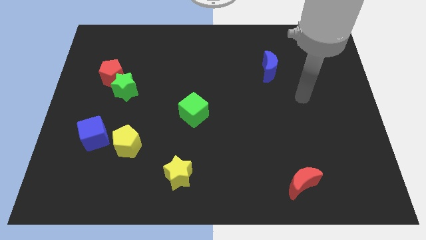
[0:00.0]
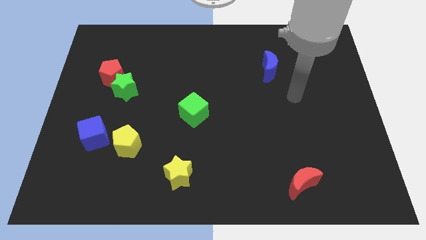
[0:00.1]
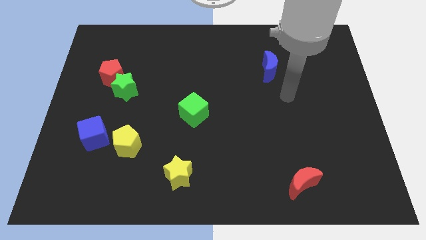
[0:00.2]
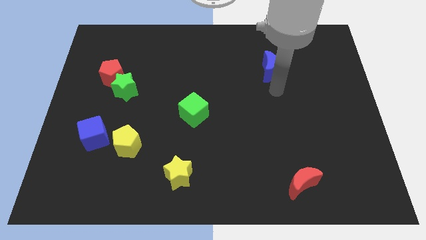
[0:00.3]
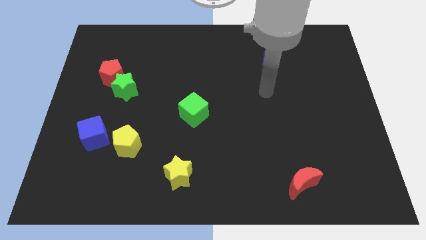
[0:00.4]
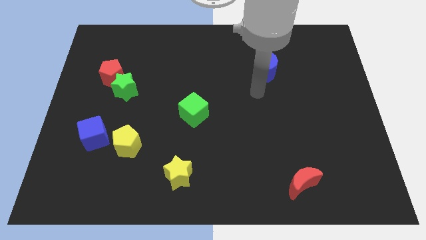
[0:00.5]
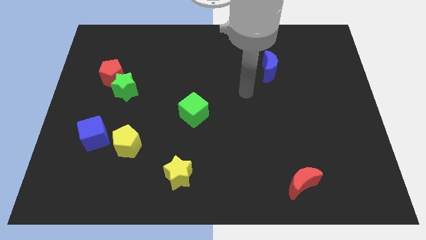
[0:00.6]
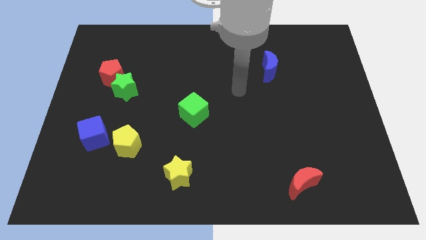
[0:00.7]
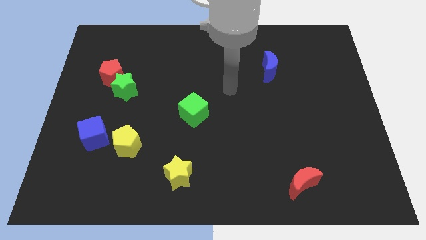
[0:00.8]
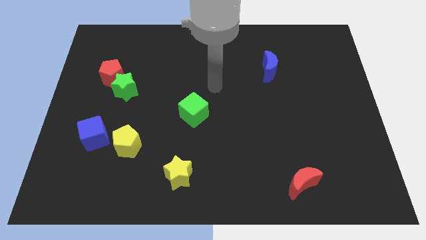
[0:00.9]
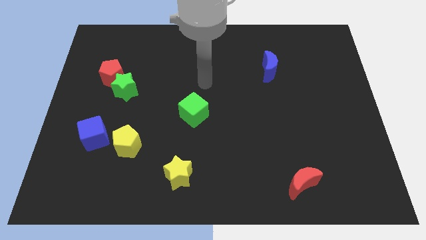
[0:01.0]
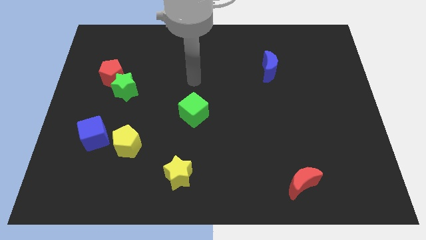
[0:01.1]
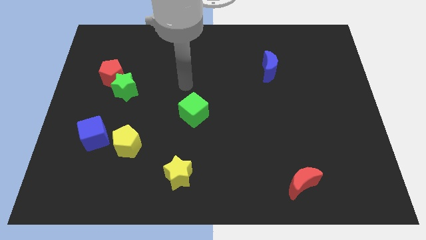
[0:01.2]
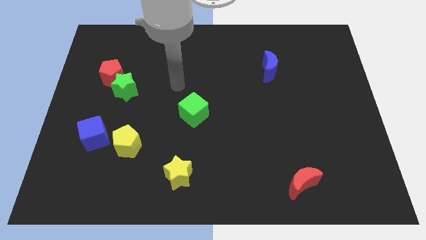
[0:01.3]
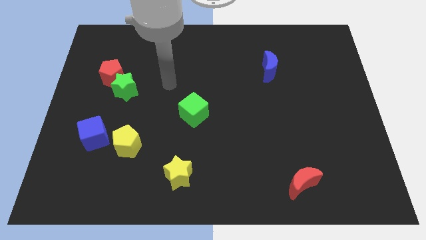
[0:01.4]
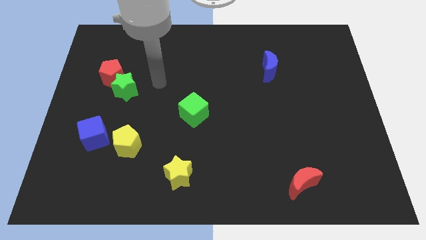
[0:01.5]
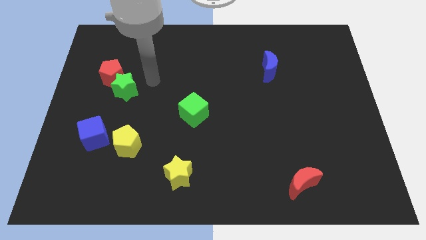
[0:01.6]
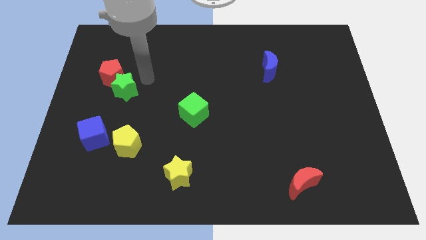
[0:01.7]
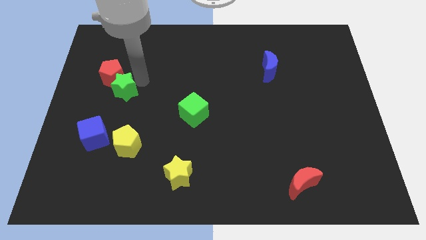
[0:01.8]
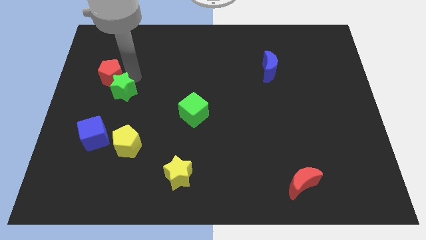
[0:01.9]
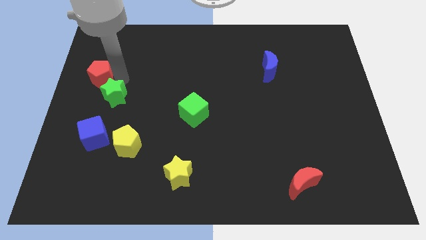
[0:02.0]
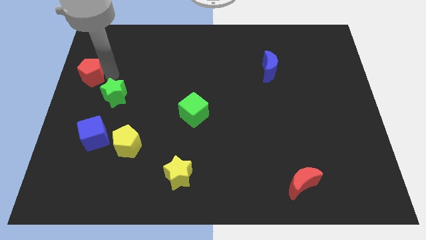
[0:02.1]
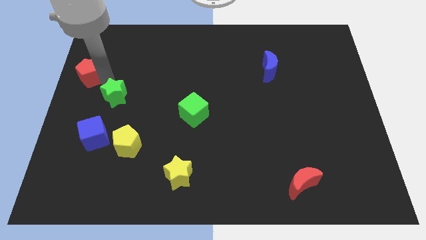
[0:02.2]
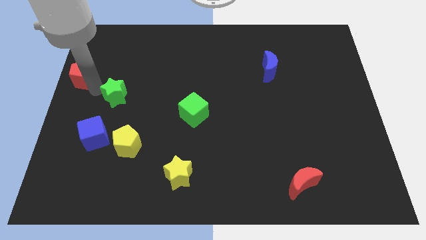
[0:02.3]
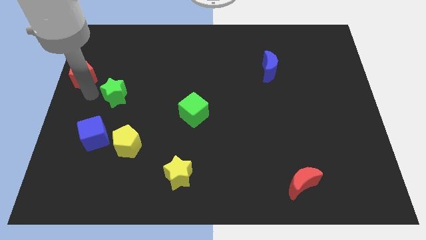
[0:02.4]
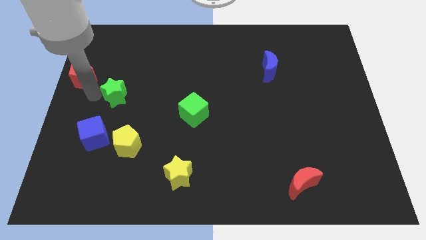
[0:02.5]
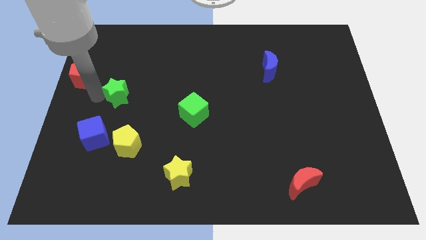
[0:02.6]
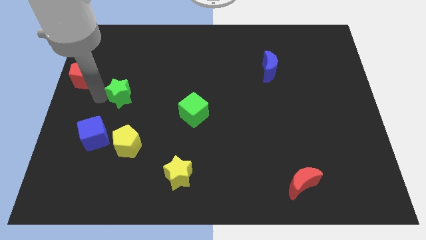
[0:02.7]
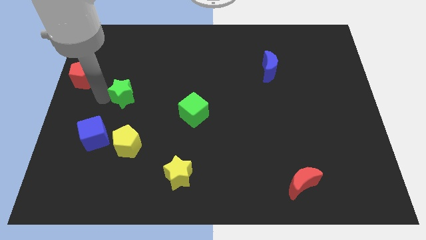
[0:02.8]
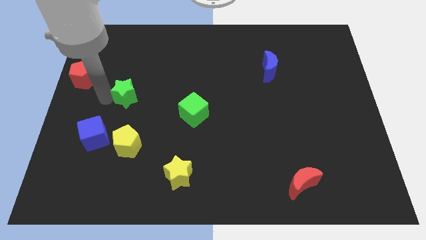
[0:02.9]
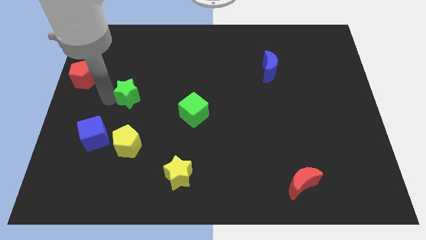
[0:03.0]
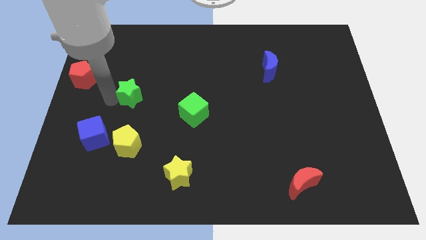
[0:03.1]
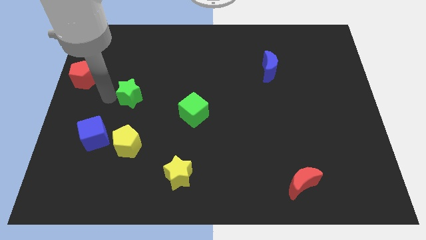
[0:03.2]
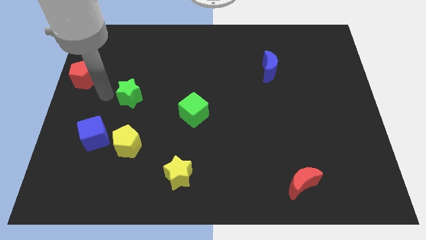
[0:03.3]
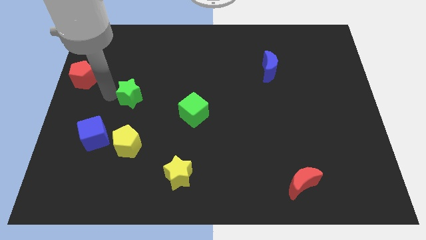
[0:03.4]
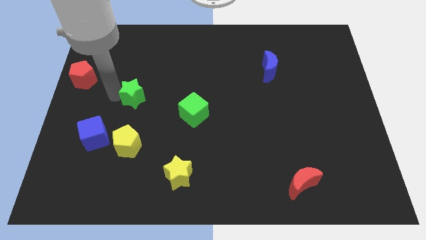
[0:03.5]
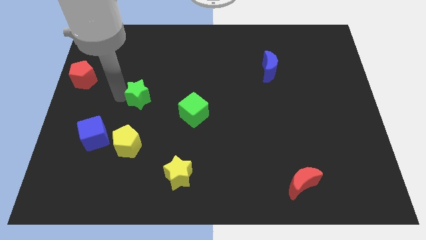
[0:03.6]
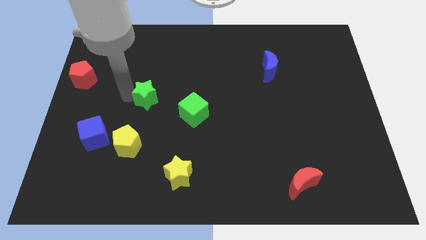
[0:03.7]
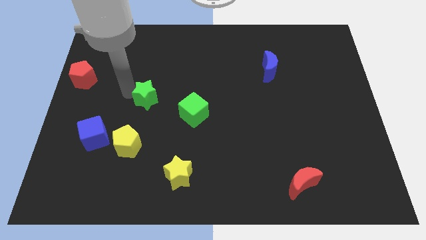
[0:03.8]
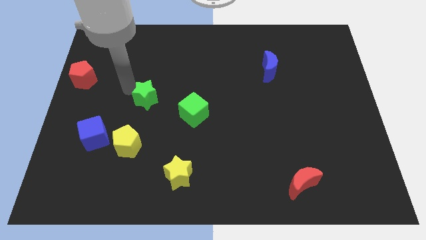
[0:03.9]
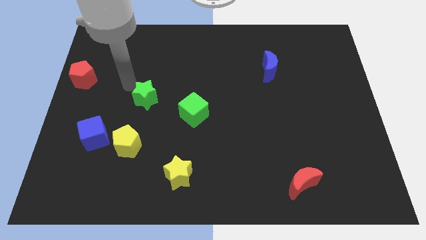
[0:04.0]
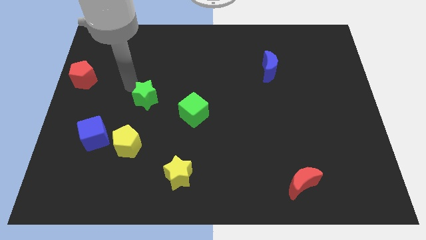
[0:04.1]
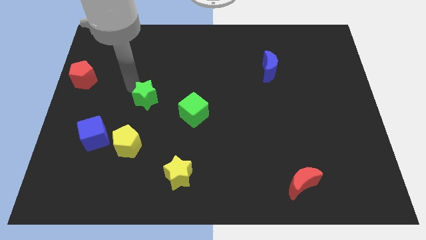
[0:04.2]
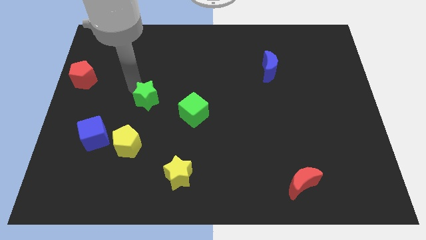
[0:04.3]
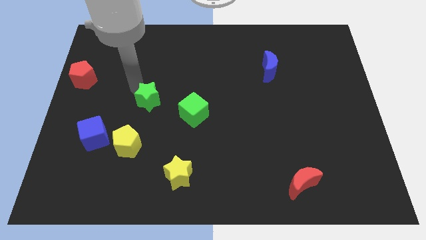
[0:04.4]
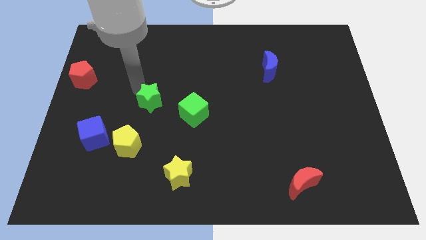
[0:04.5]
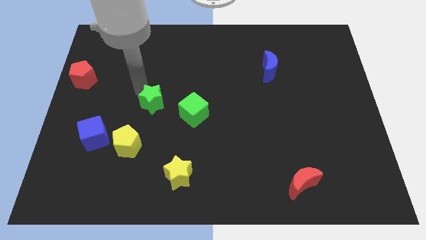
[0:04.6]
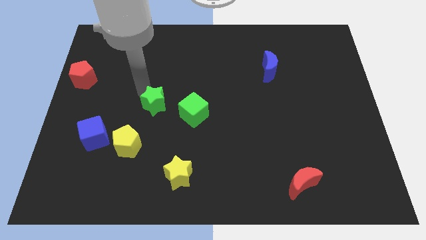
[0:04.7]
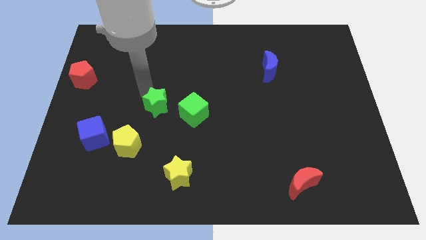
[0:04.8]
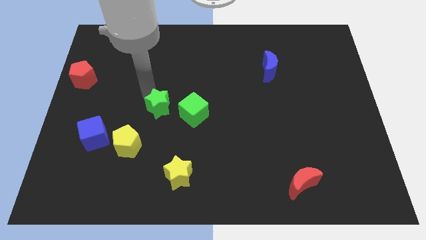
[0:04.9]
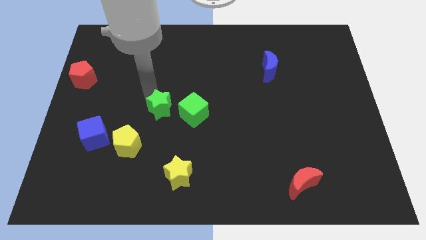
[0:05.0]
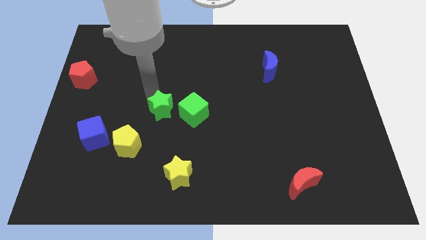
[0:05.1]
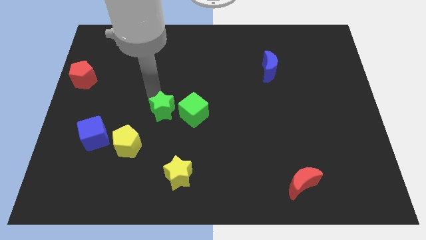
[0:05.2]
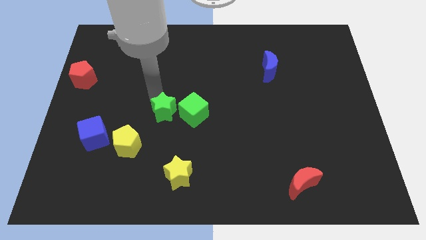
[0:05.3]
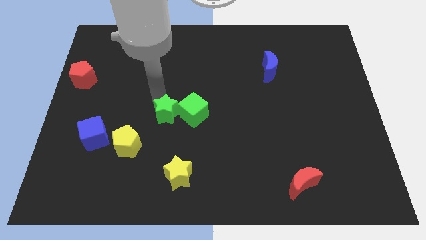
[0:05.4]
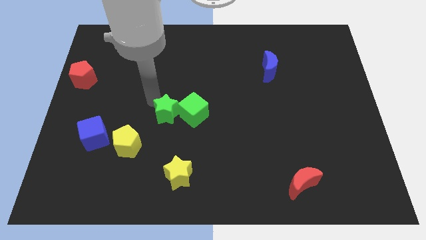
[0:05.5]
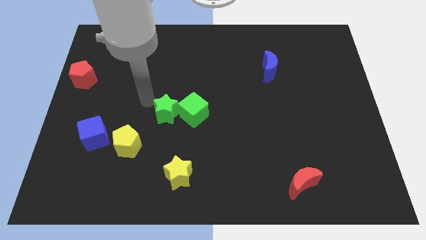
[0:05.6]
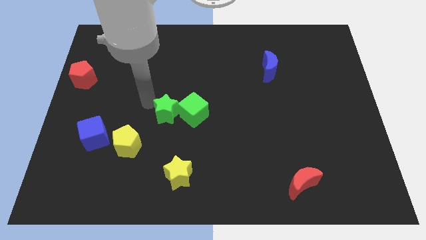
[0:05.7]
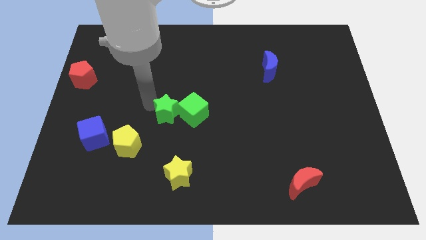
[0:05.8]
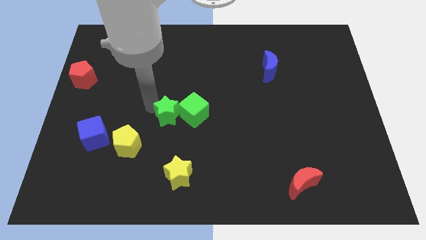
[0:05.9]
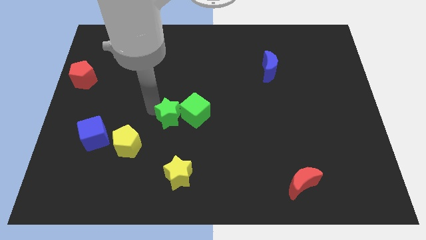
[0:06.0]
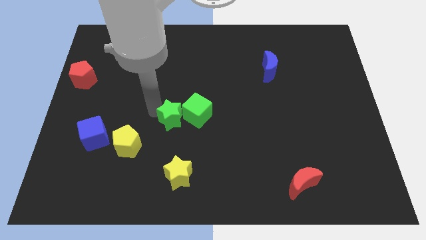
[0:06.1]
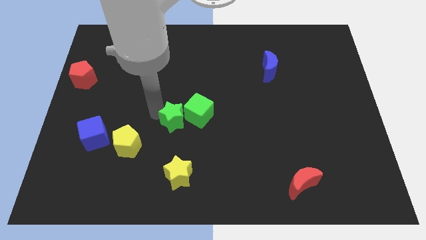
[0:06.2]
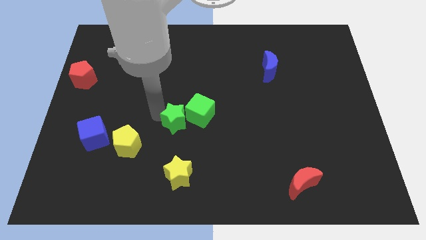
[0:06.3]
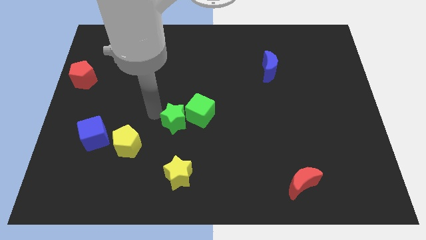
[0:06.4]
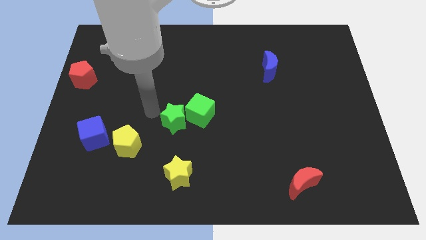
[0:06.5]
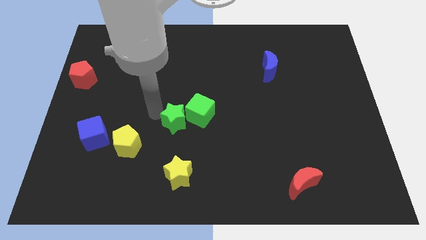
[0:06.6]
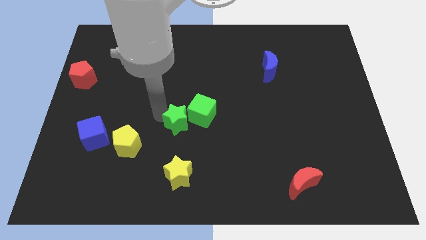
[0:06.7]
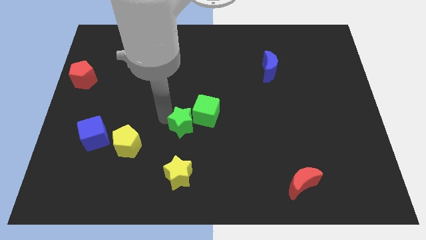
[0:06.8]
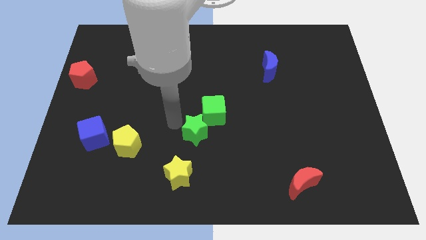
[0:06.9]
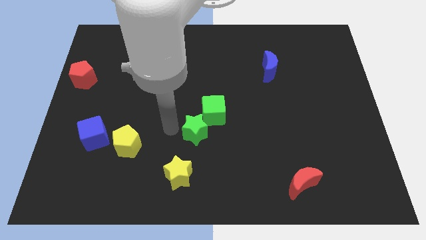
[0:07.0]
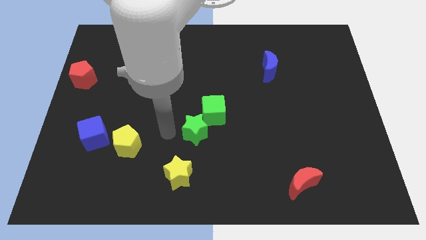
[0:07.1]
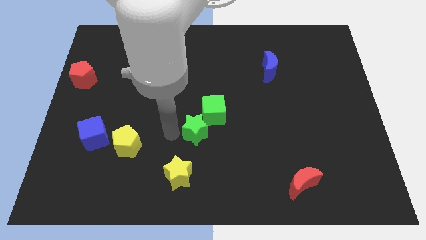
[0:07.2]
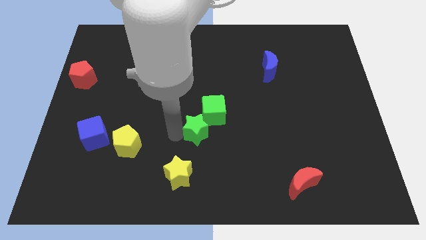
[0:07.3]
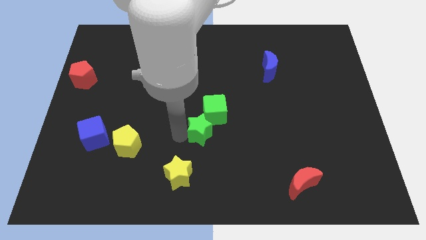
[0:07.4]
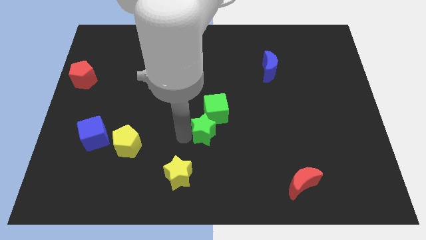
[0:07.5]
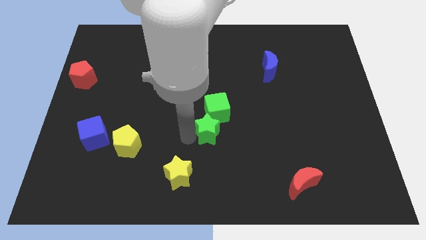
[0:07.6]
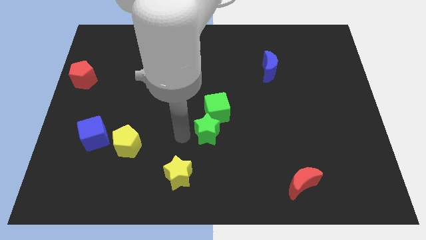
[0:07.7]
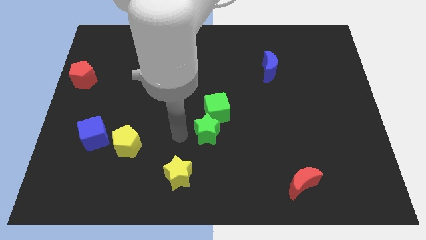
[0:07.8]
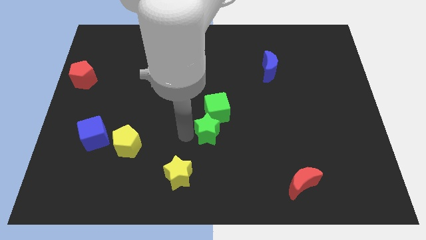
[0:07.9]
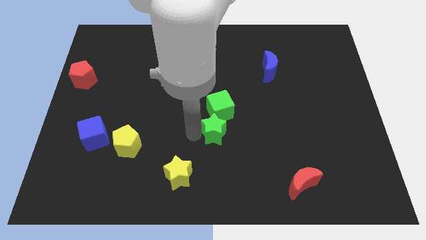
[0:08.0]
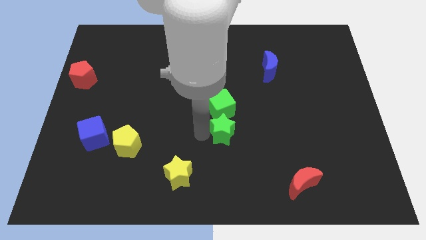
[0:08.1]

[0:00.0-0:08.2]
slide the green star diagonally down and to the right of the green cube
